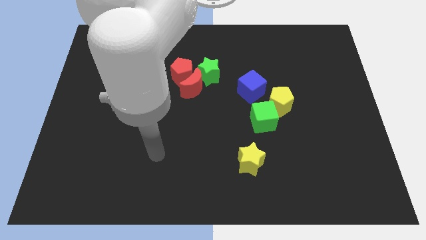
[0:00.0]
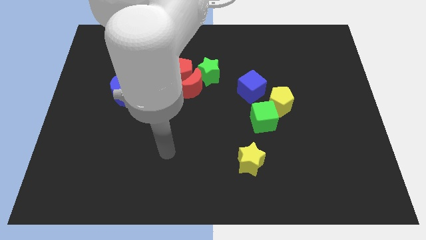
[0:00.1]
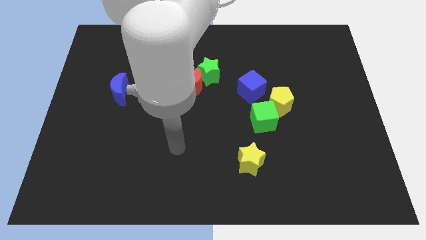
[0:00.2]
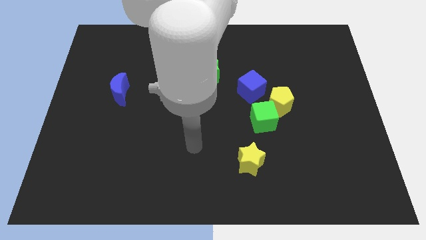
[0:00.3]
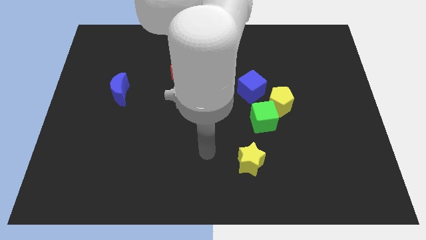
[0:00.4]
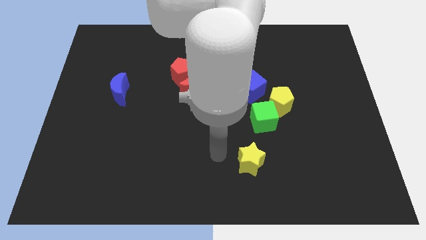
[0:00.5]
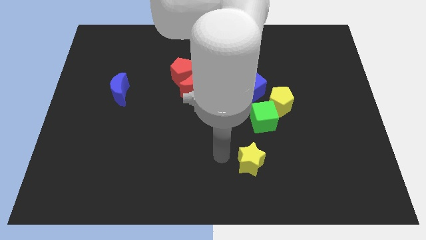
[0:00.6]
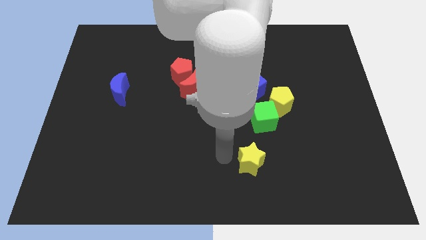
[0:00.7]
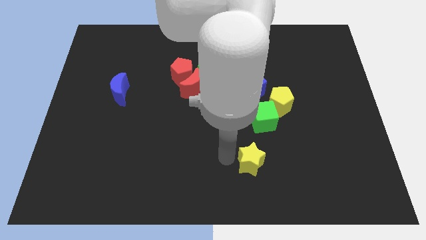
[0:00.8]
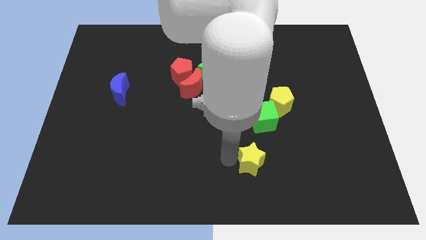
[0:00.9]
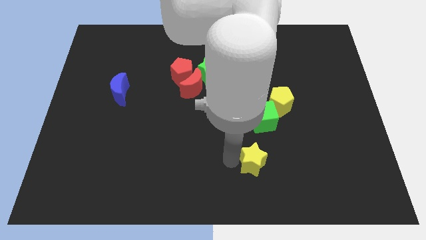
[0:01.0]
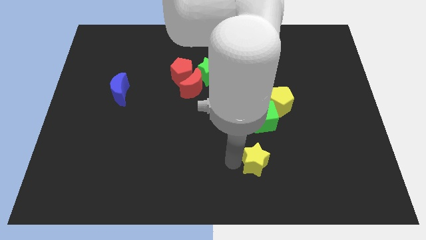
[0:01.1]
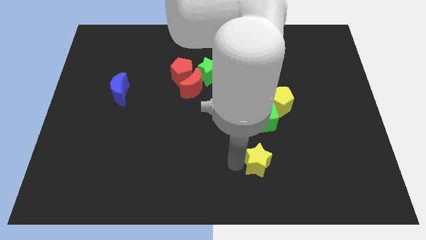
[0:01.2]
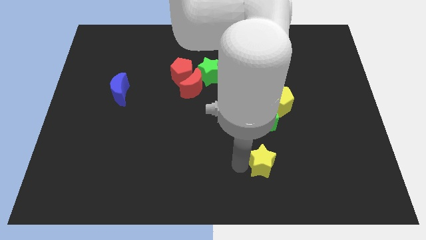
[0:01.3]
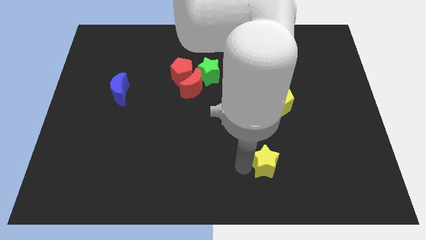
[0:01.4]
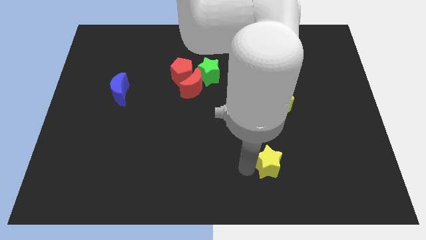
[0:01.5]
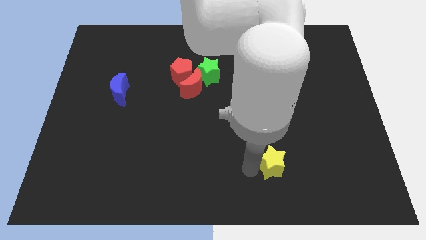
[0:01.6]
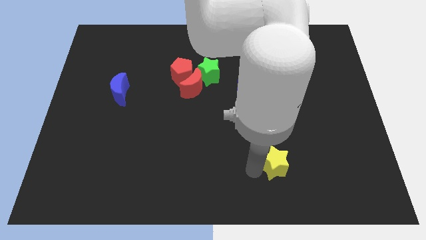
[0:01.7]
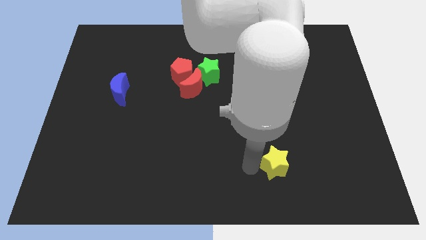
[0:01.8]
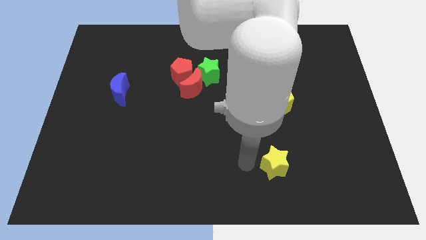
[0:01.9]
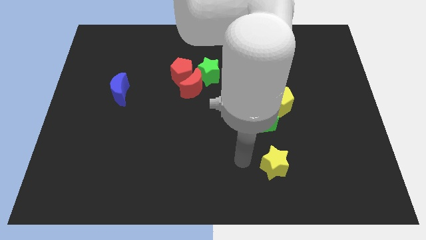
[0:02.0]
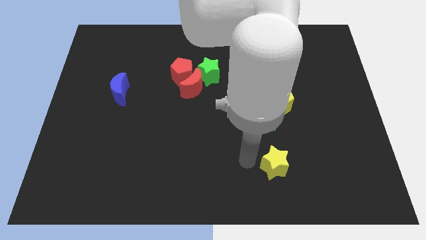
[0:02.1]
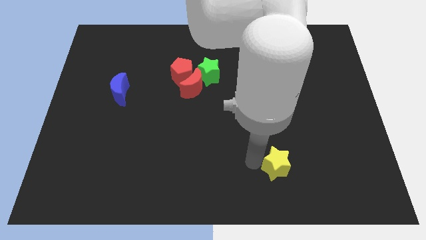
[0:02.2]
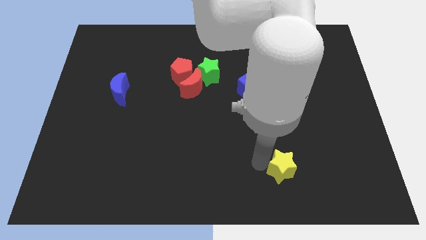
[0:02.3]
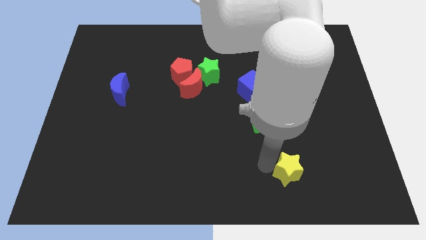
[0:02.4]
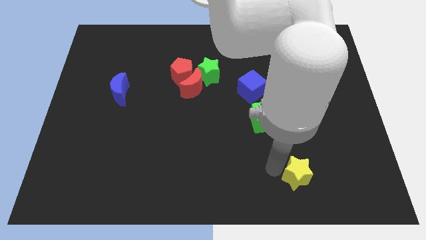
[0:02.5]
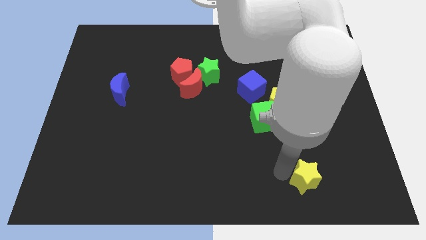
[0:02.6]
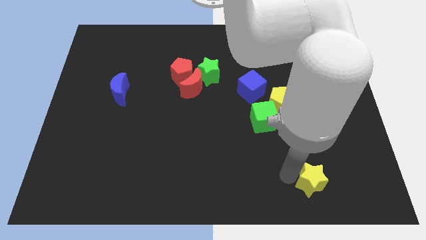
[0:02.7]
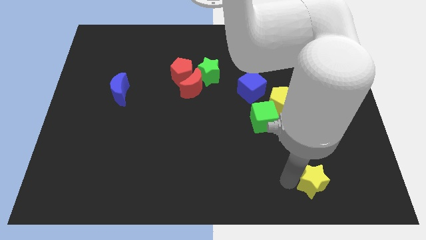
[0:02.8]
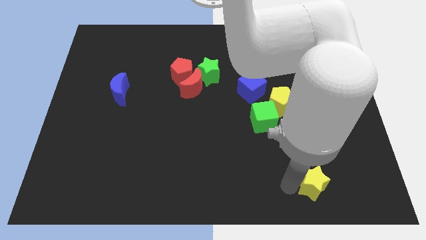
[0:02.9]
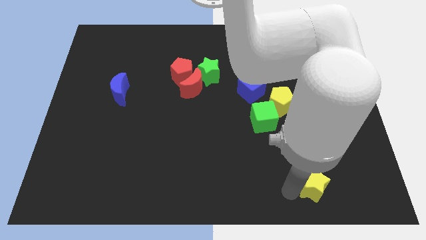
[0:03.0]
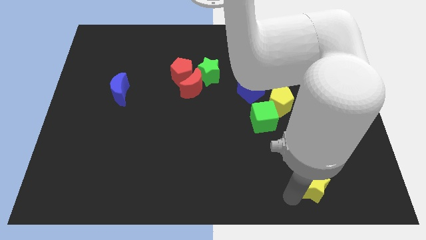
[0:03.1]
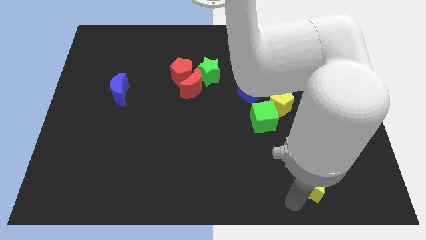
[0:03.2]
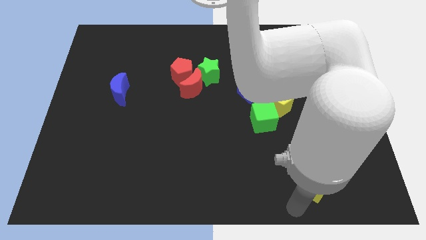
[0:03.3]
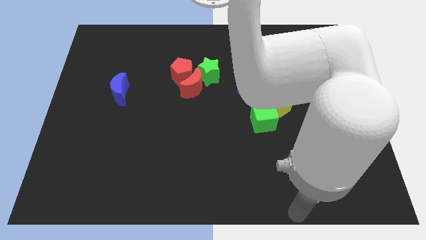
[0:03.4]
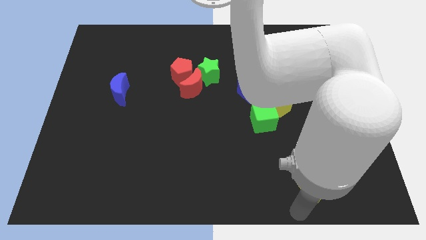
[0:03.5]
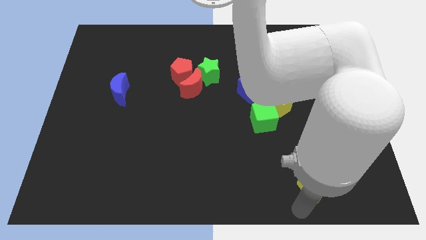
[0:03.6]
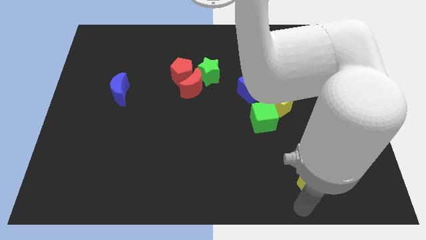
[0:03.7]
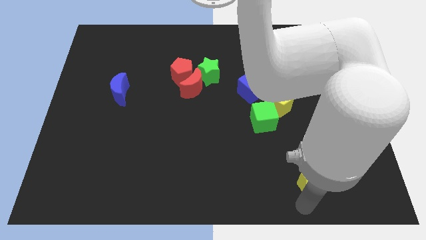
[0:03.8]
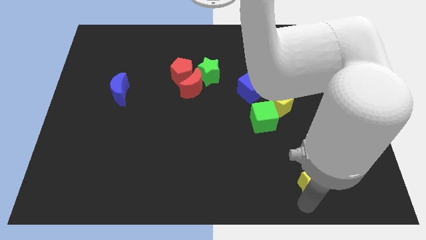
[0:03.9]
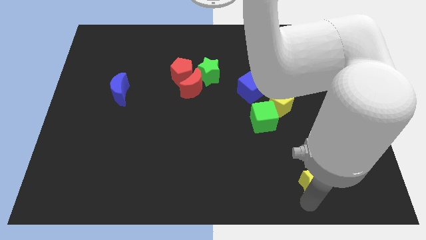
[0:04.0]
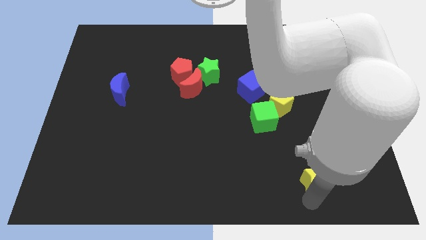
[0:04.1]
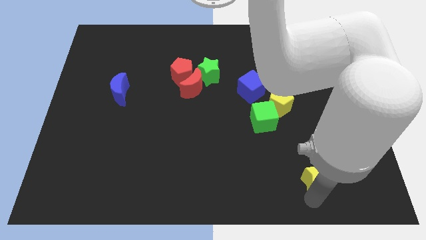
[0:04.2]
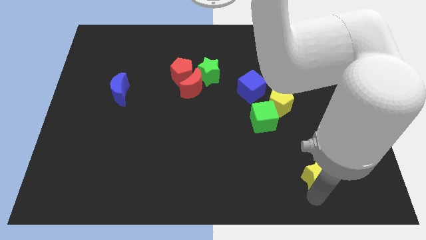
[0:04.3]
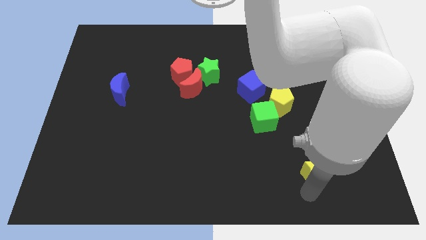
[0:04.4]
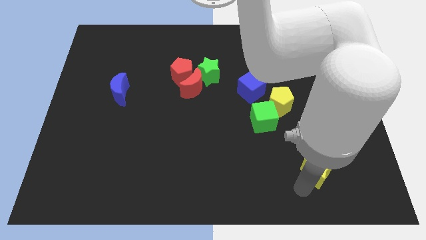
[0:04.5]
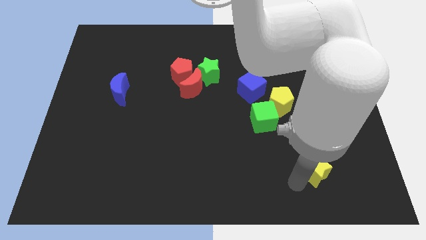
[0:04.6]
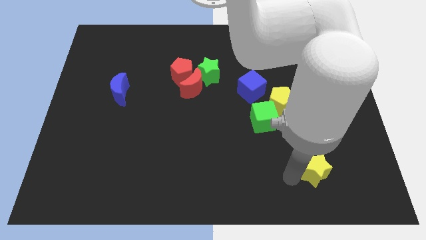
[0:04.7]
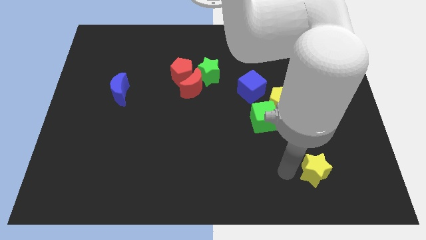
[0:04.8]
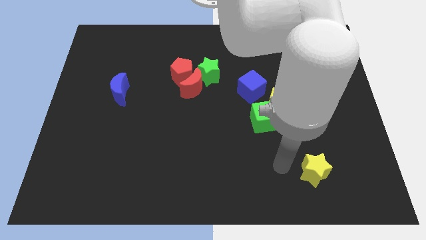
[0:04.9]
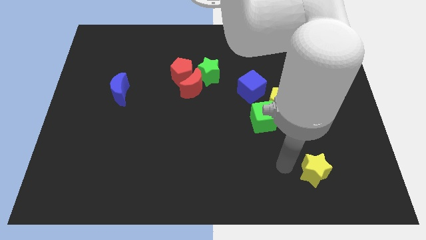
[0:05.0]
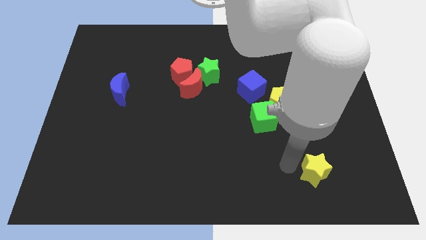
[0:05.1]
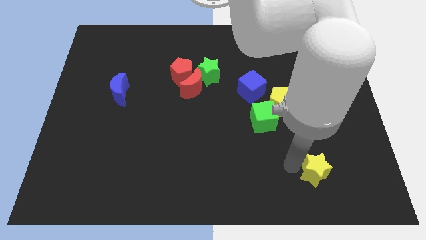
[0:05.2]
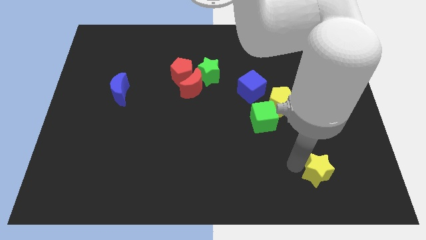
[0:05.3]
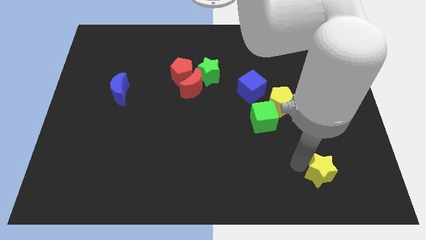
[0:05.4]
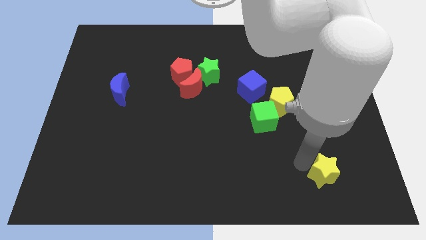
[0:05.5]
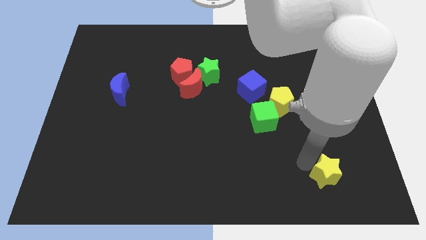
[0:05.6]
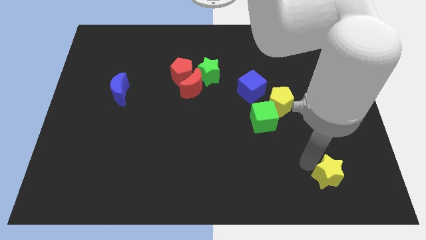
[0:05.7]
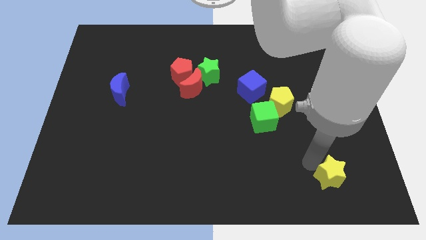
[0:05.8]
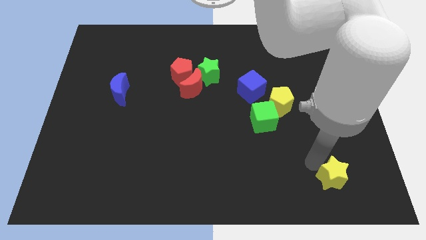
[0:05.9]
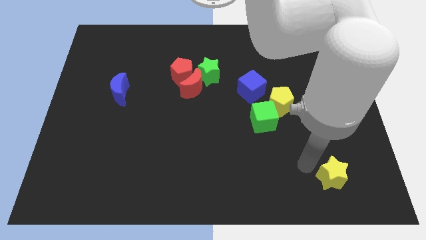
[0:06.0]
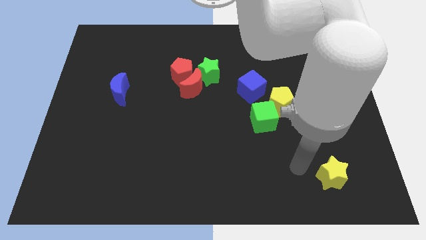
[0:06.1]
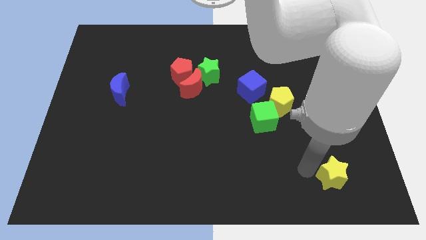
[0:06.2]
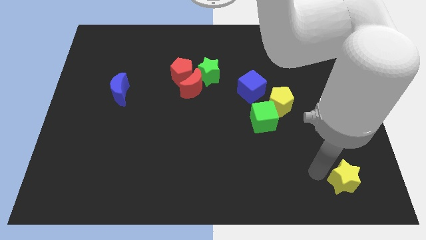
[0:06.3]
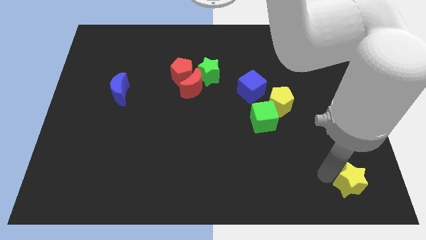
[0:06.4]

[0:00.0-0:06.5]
slide the yellow star to the bottom right of the board
